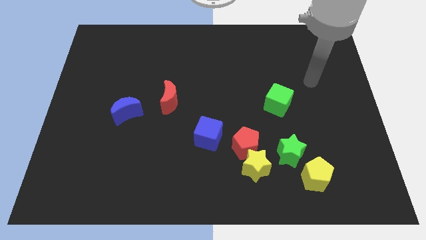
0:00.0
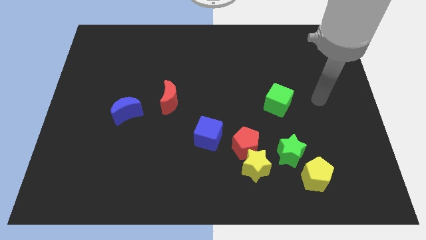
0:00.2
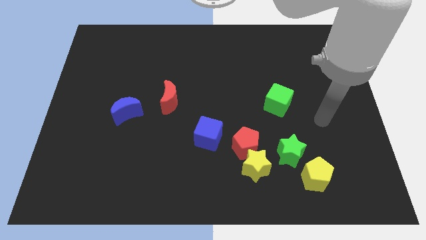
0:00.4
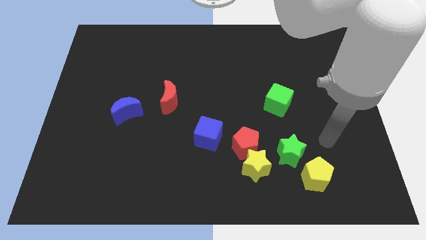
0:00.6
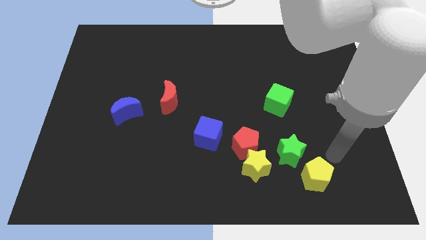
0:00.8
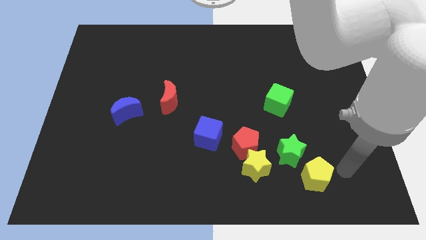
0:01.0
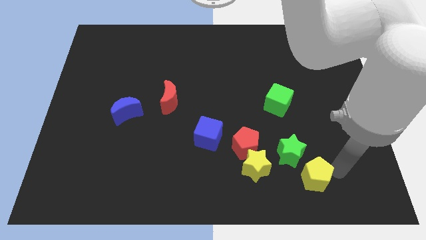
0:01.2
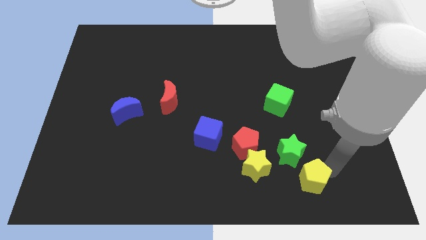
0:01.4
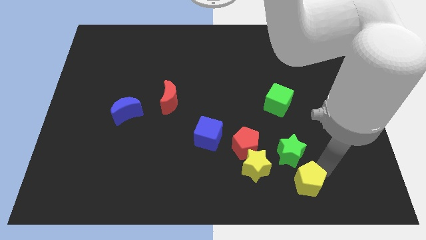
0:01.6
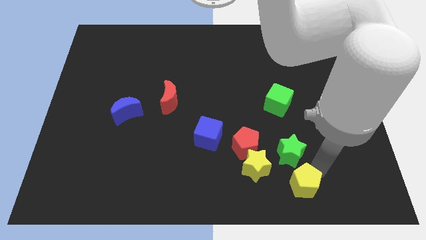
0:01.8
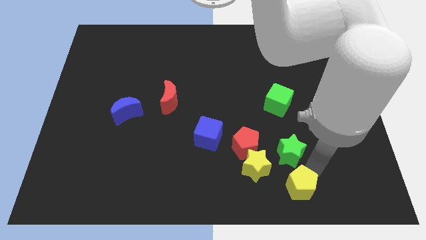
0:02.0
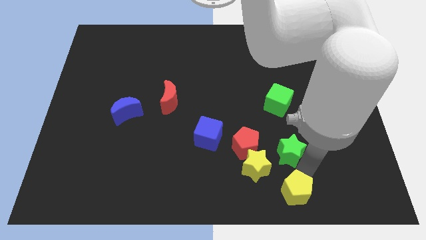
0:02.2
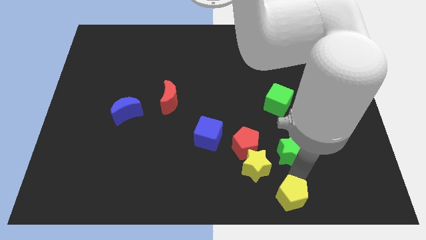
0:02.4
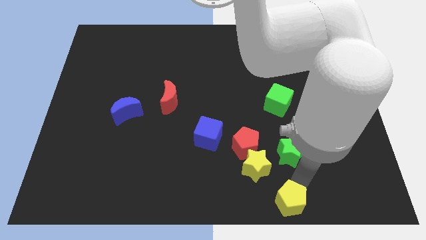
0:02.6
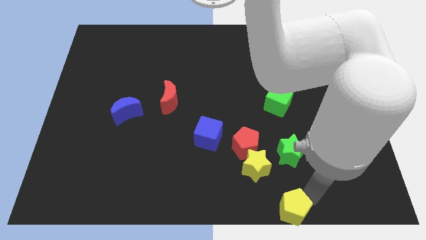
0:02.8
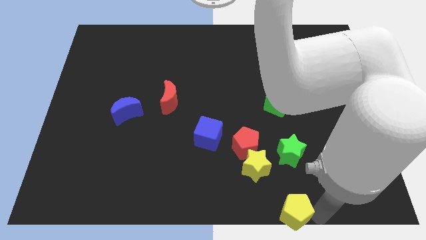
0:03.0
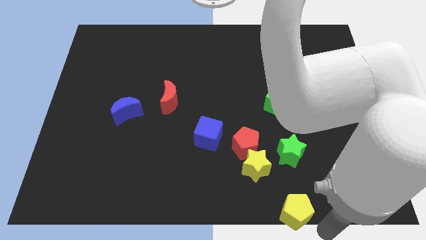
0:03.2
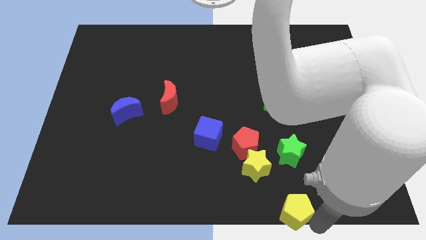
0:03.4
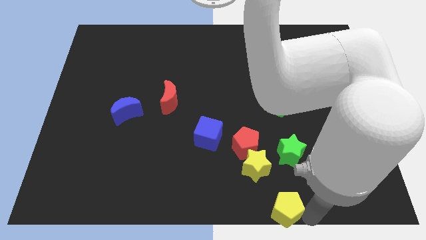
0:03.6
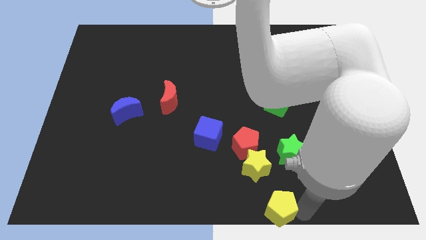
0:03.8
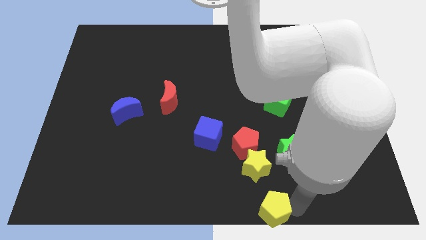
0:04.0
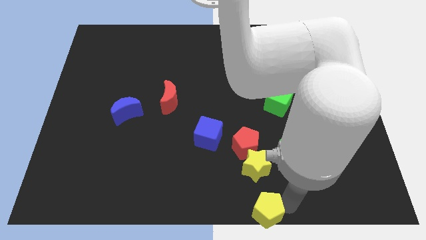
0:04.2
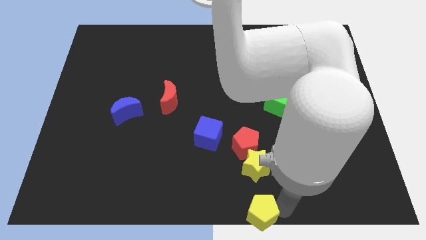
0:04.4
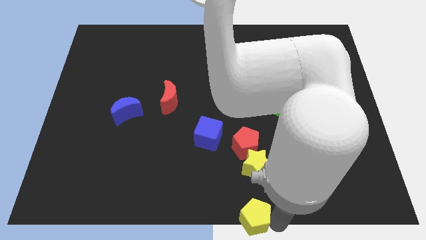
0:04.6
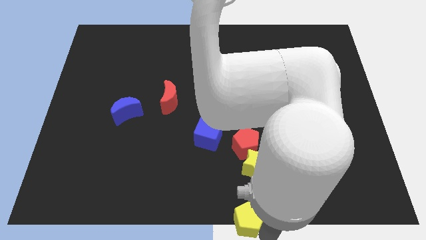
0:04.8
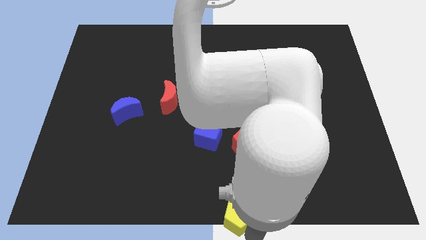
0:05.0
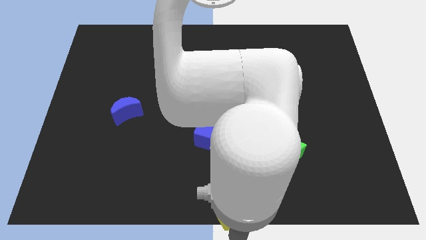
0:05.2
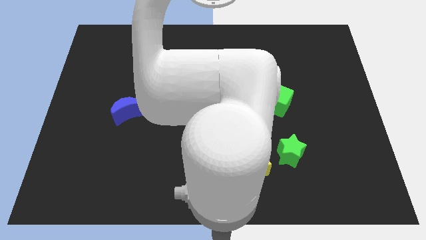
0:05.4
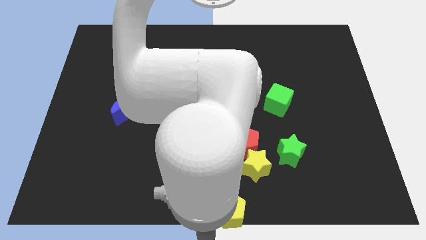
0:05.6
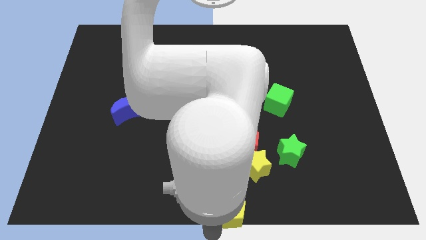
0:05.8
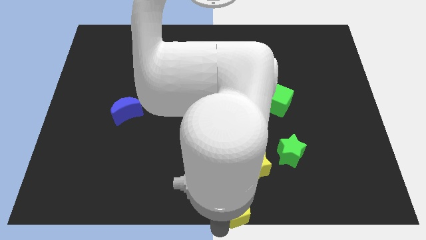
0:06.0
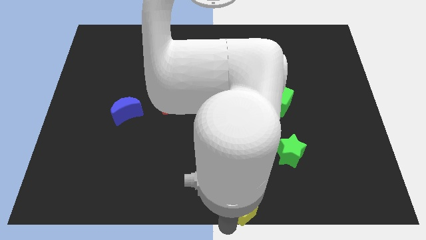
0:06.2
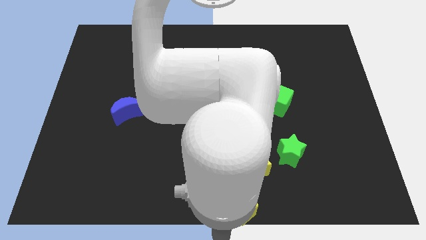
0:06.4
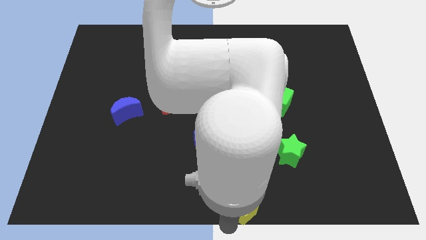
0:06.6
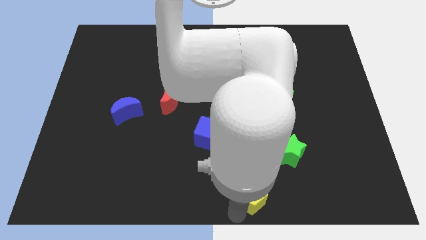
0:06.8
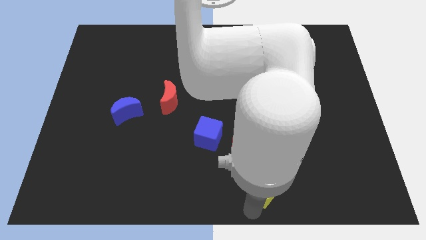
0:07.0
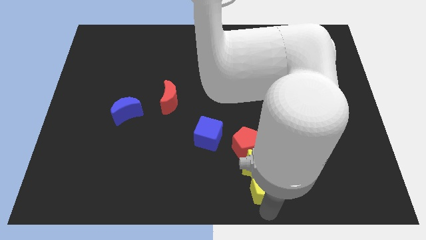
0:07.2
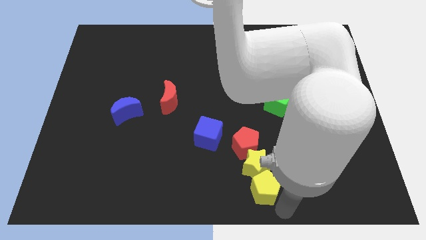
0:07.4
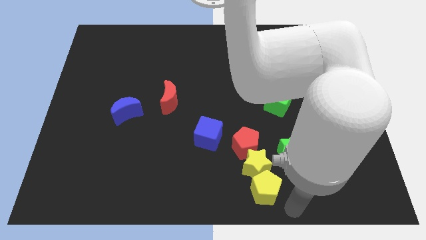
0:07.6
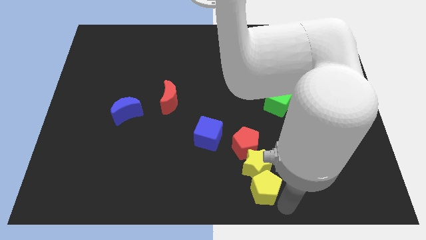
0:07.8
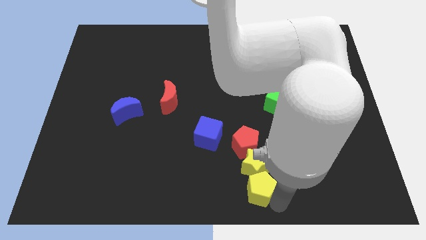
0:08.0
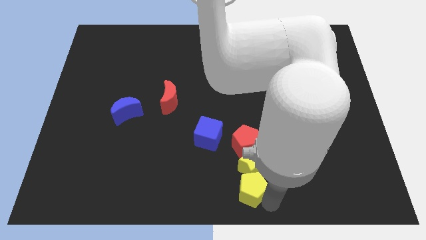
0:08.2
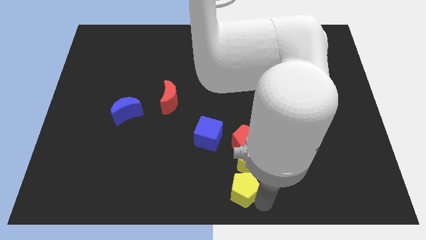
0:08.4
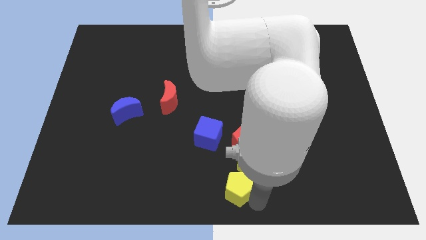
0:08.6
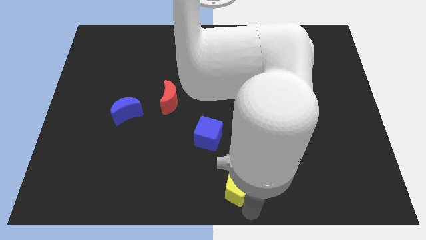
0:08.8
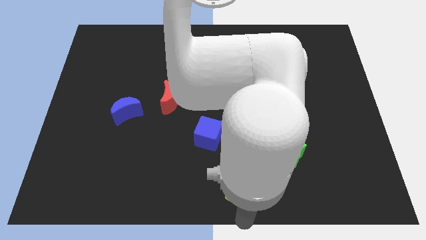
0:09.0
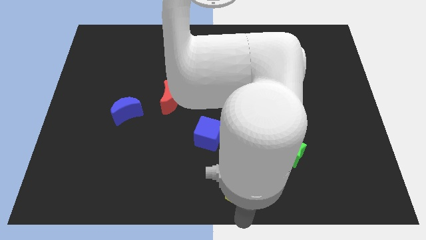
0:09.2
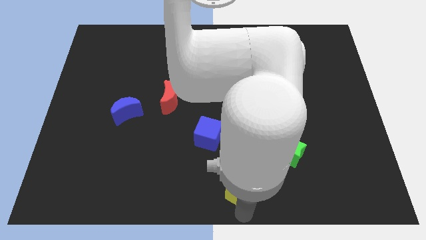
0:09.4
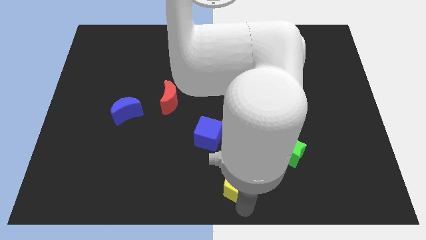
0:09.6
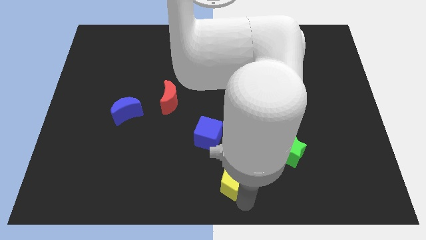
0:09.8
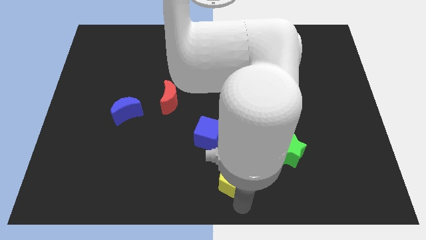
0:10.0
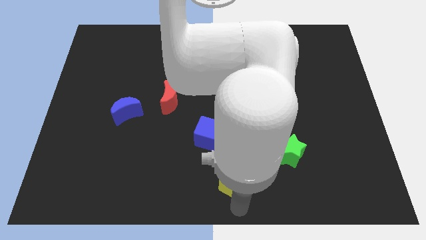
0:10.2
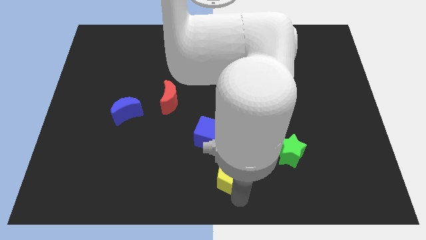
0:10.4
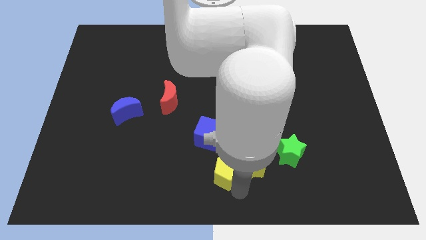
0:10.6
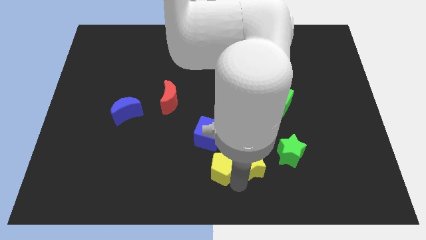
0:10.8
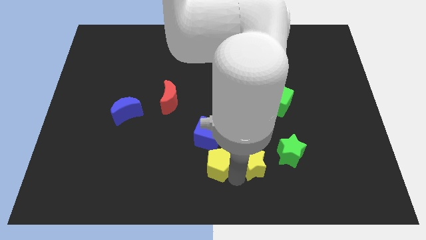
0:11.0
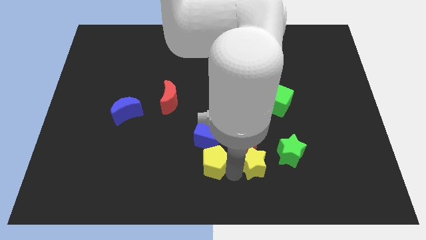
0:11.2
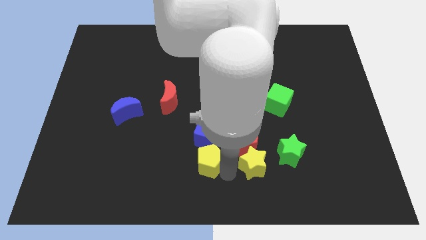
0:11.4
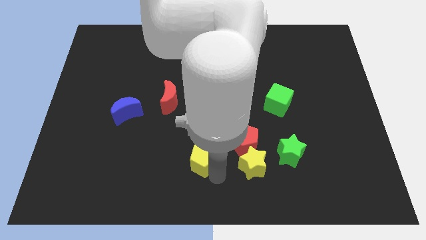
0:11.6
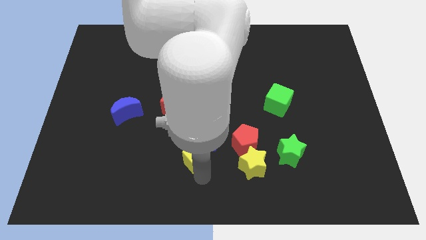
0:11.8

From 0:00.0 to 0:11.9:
push the yellow pentagon close to the blue cube
